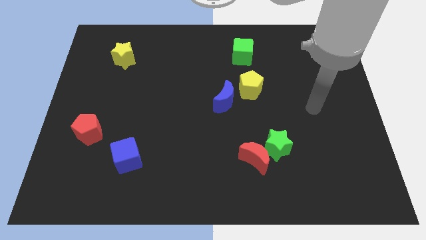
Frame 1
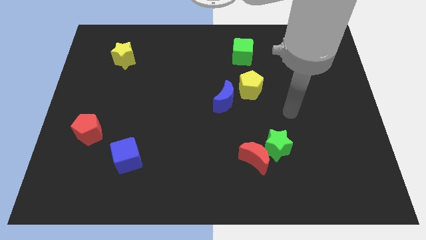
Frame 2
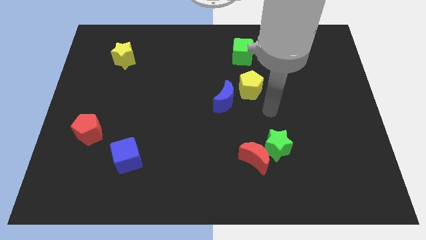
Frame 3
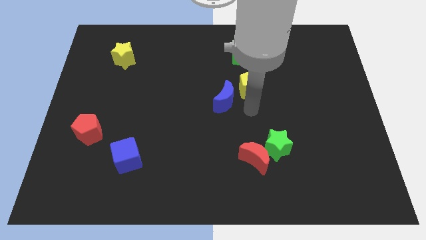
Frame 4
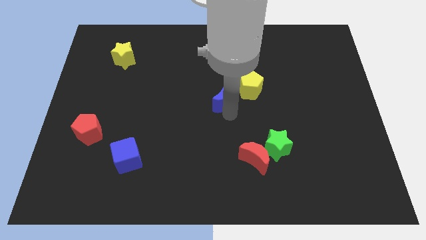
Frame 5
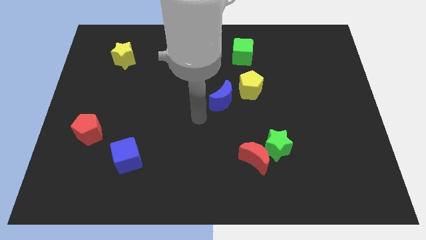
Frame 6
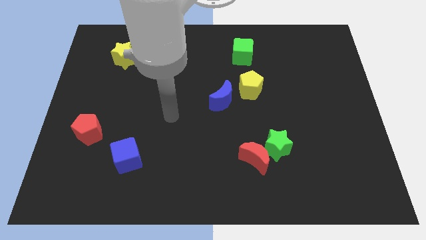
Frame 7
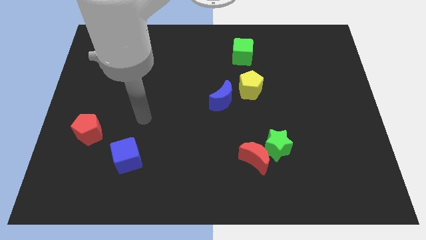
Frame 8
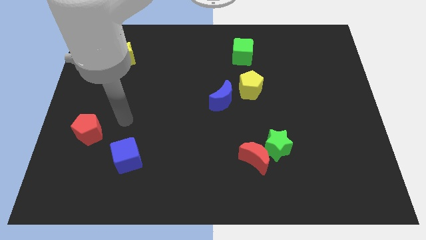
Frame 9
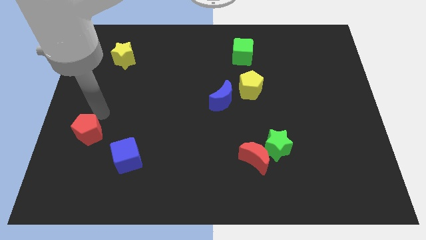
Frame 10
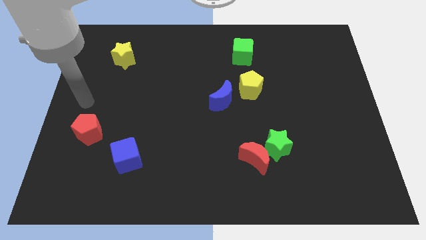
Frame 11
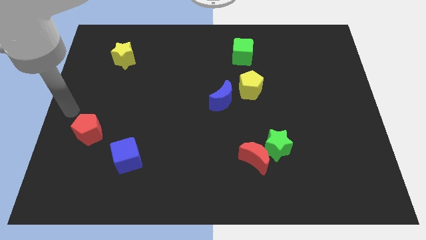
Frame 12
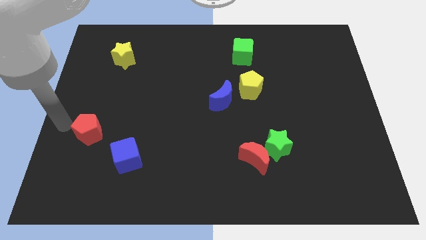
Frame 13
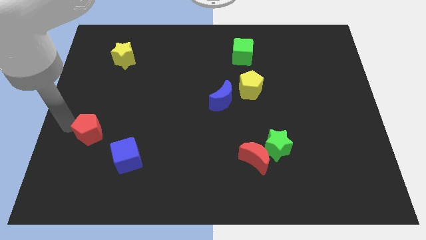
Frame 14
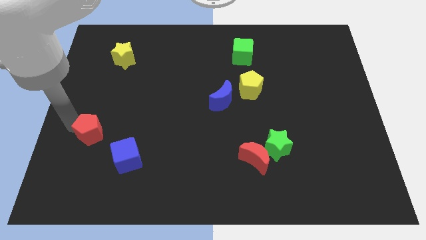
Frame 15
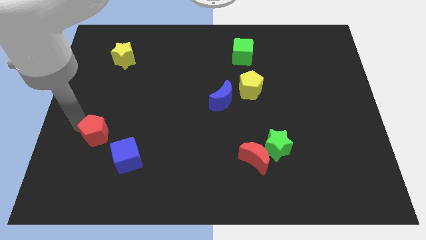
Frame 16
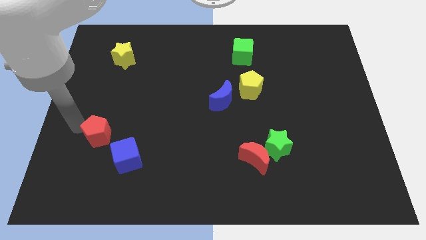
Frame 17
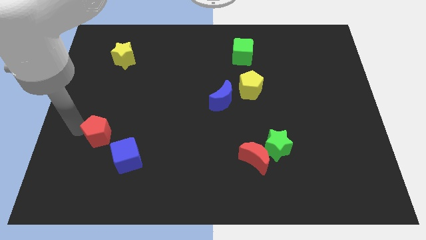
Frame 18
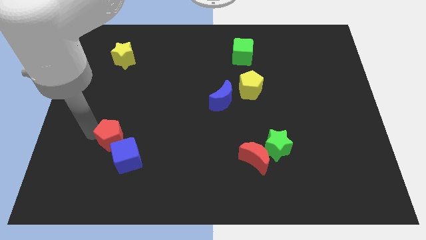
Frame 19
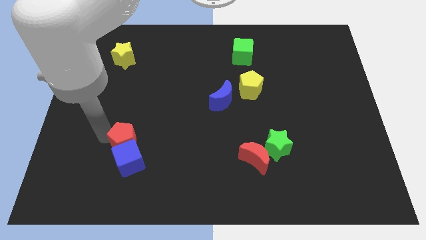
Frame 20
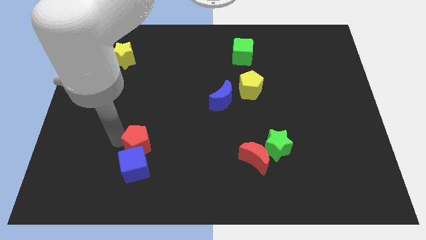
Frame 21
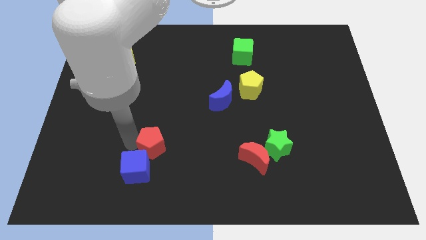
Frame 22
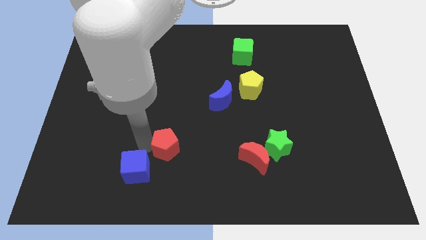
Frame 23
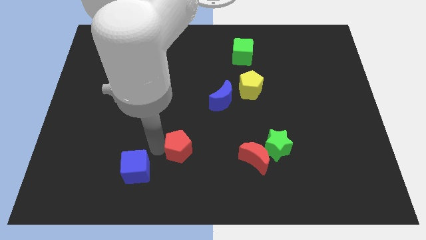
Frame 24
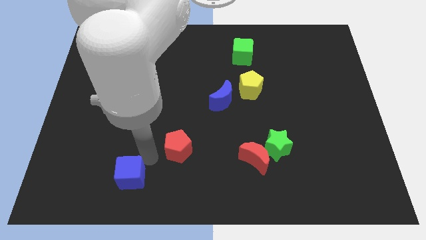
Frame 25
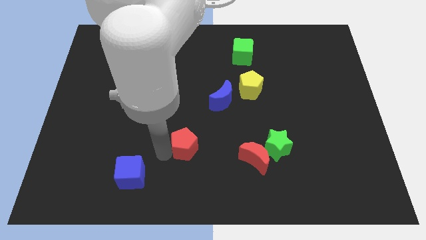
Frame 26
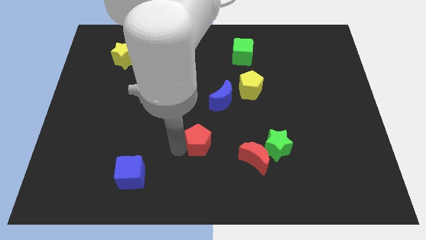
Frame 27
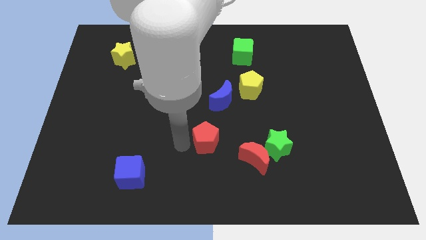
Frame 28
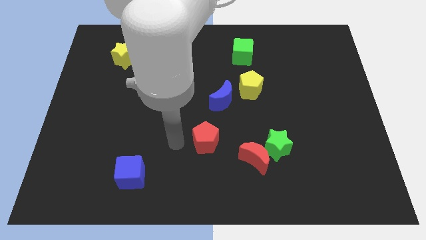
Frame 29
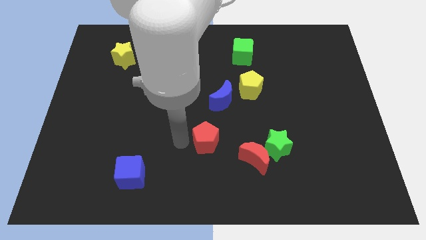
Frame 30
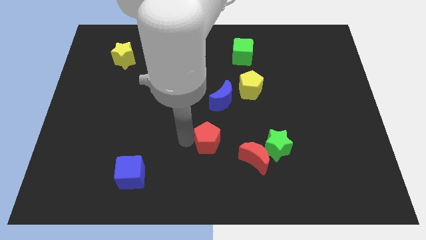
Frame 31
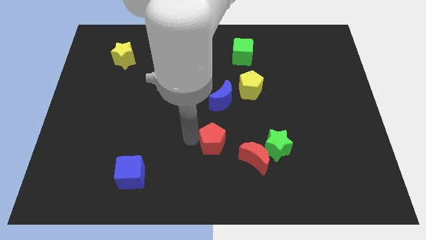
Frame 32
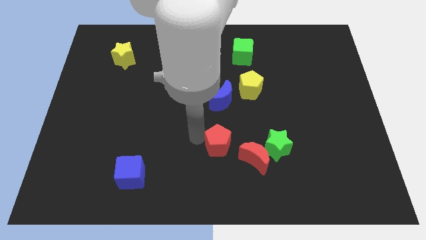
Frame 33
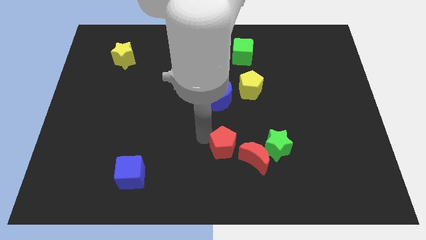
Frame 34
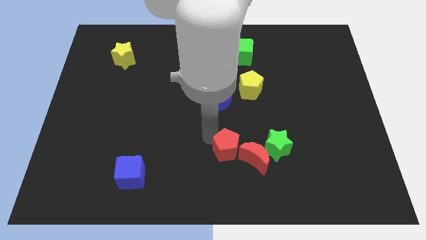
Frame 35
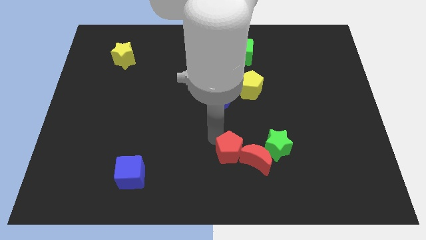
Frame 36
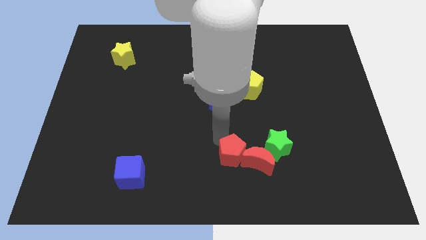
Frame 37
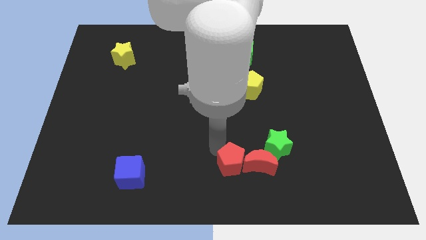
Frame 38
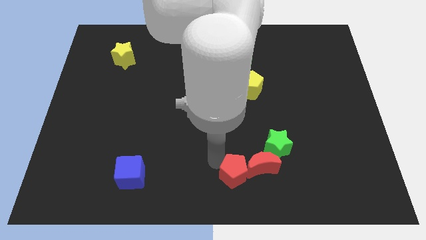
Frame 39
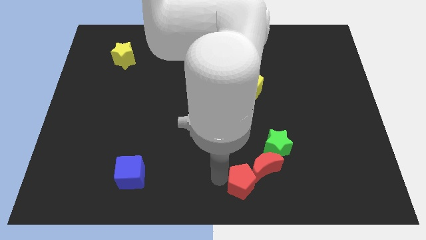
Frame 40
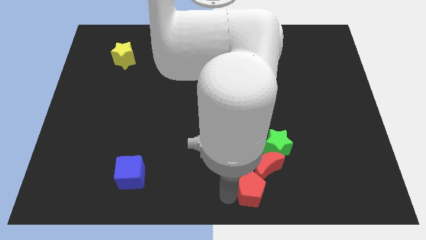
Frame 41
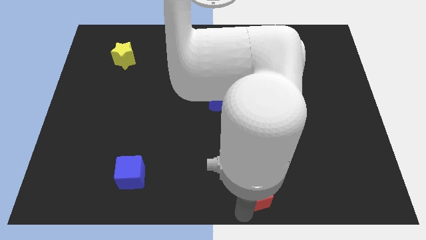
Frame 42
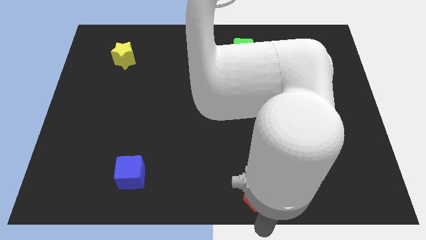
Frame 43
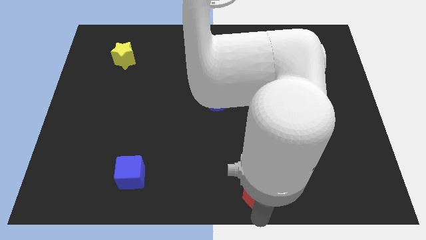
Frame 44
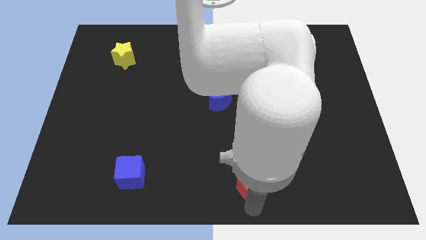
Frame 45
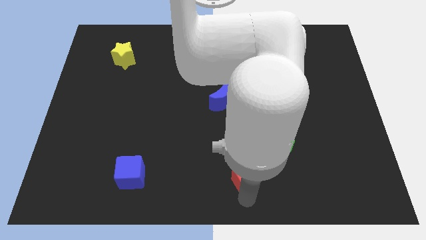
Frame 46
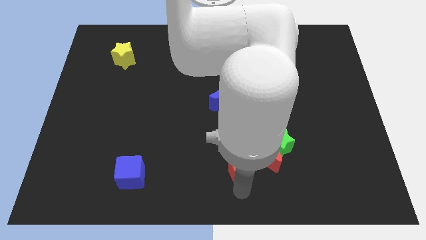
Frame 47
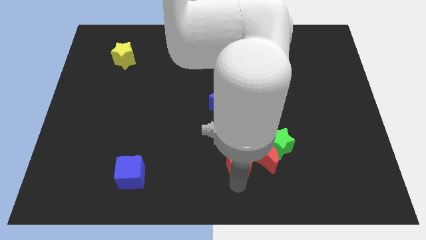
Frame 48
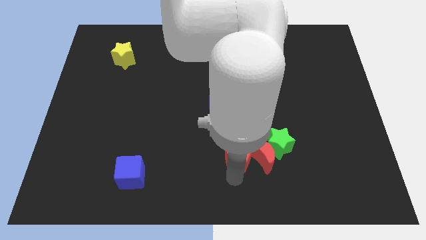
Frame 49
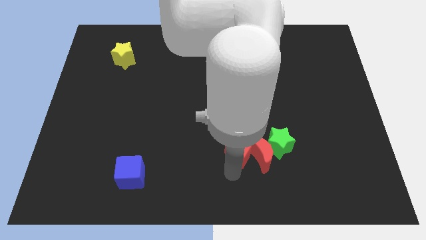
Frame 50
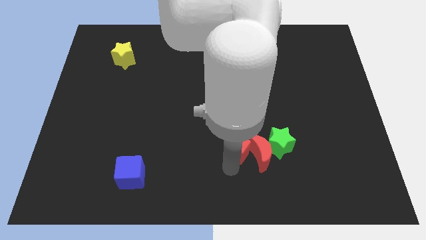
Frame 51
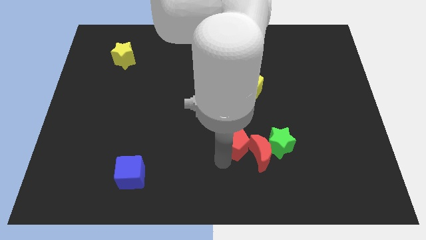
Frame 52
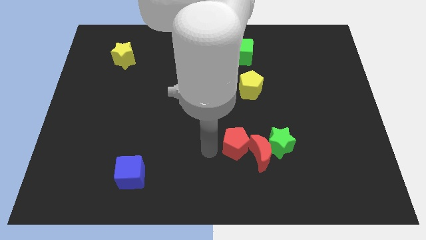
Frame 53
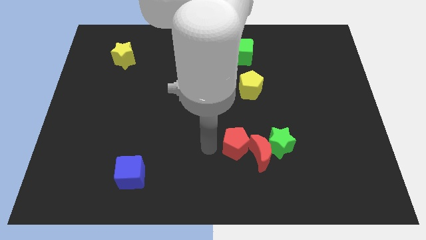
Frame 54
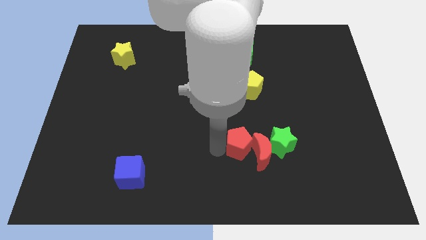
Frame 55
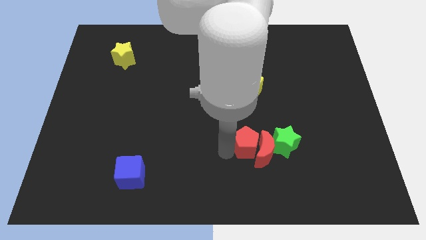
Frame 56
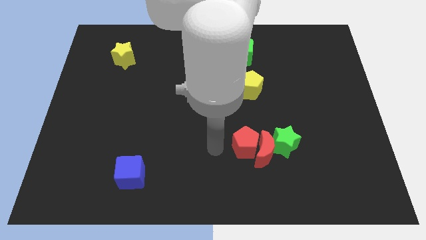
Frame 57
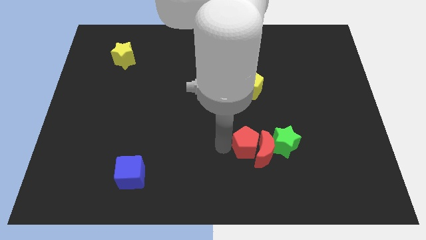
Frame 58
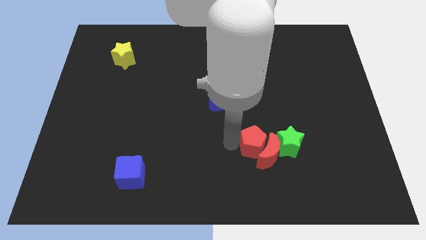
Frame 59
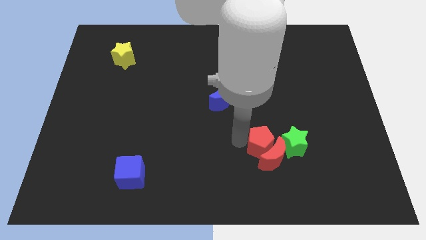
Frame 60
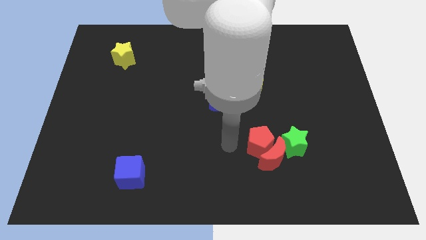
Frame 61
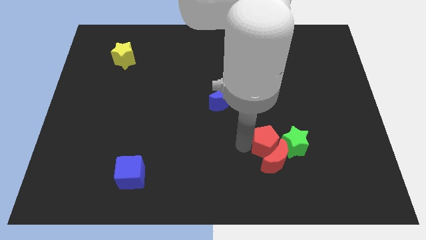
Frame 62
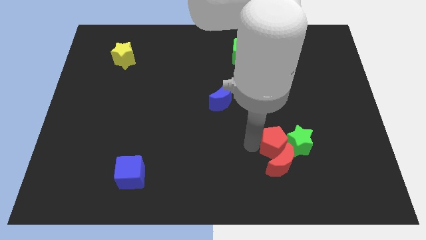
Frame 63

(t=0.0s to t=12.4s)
push the red pentagon towards the green star
